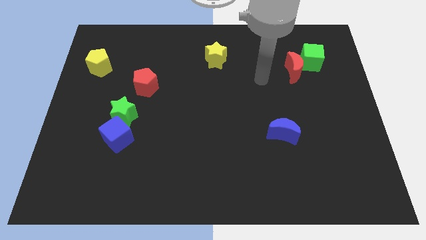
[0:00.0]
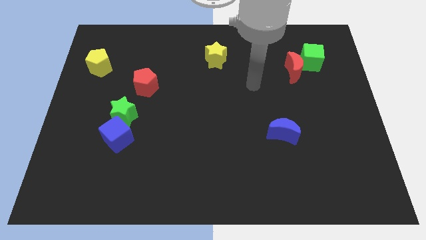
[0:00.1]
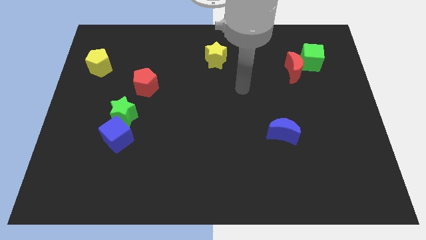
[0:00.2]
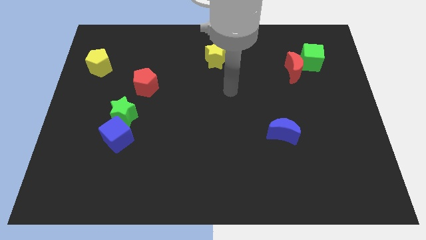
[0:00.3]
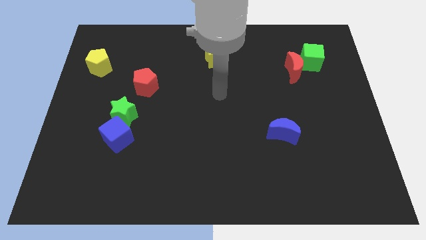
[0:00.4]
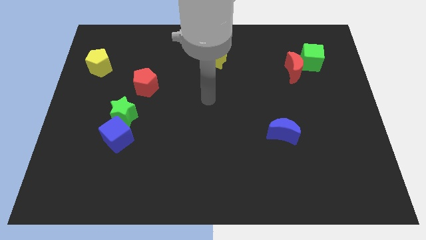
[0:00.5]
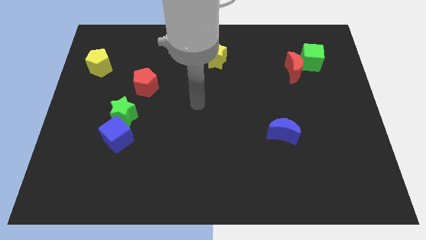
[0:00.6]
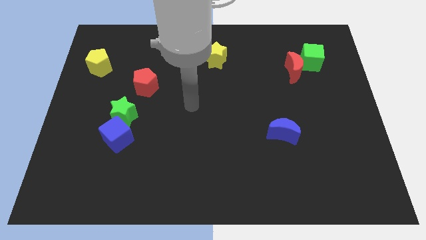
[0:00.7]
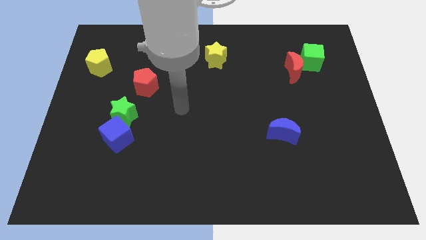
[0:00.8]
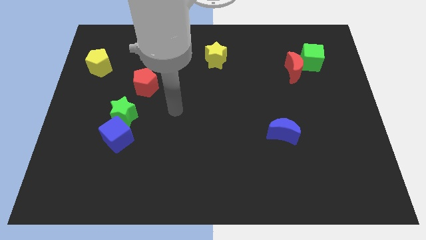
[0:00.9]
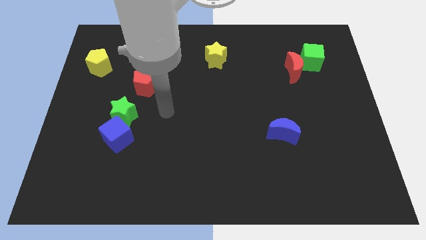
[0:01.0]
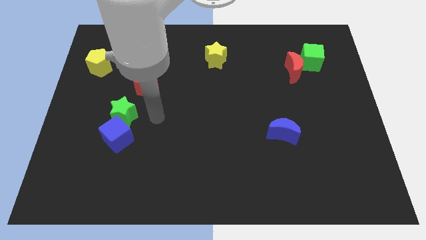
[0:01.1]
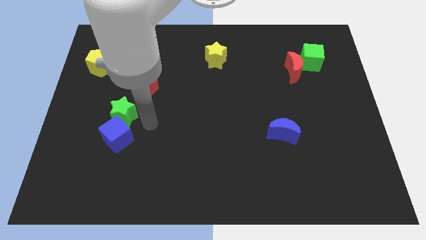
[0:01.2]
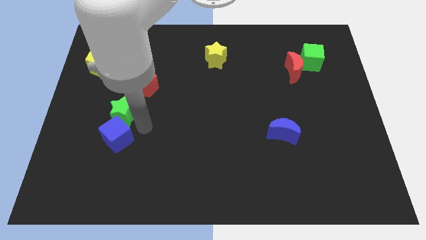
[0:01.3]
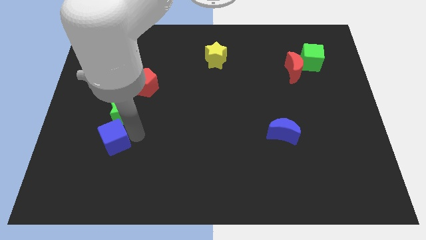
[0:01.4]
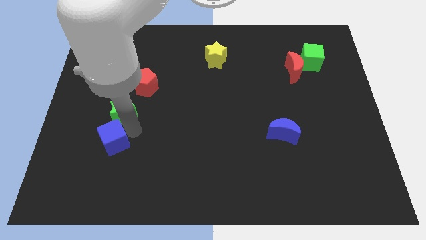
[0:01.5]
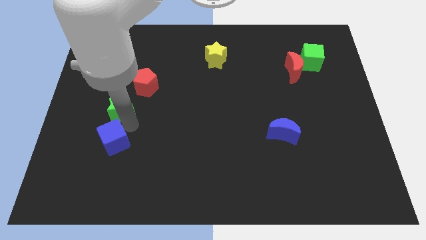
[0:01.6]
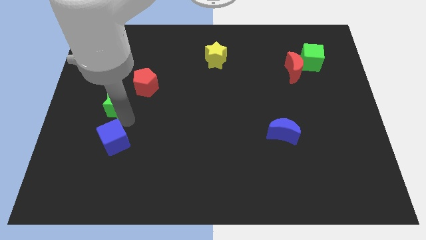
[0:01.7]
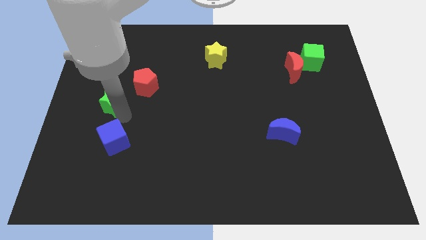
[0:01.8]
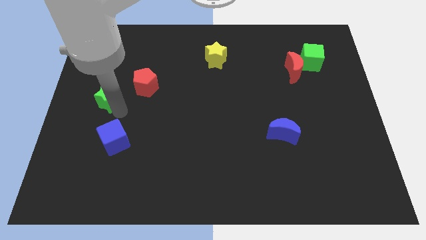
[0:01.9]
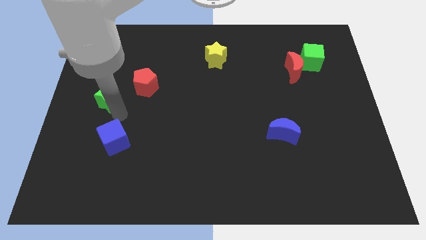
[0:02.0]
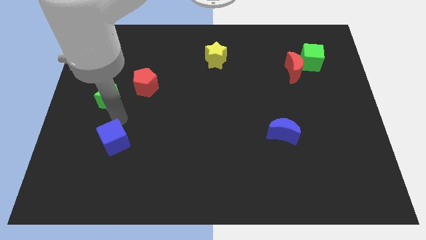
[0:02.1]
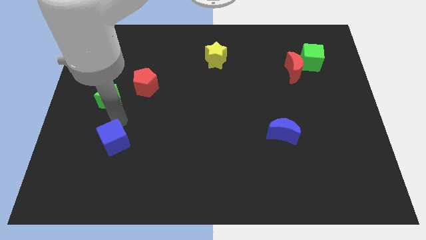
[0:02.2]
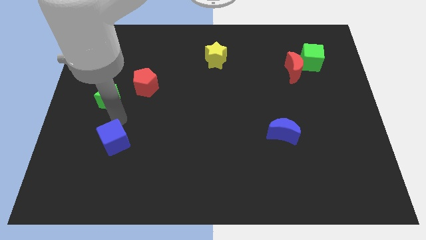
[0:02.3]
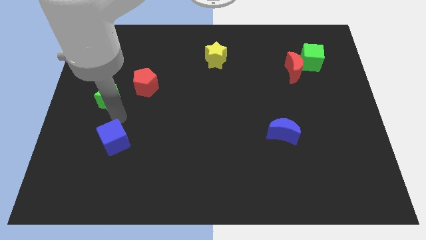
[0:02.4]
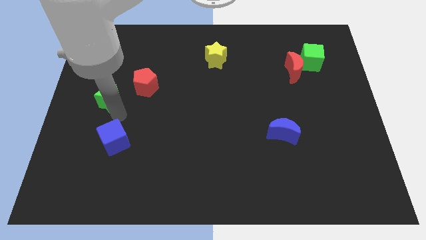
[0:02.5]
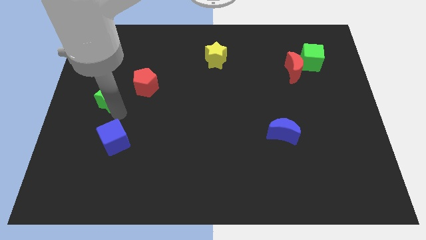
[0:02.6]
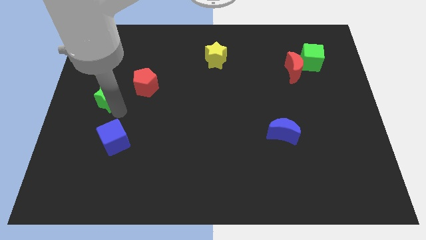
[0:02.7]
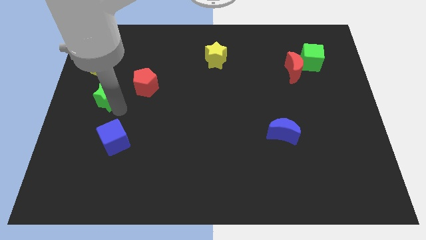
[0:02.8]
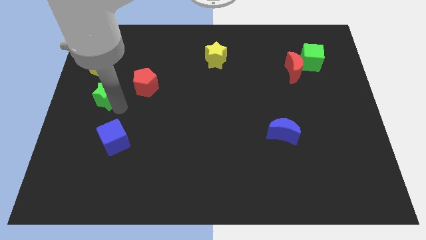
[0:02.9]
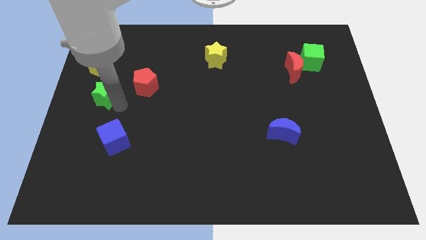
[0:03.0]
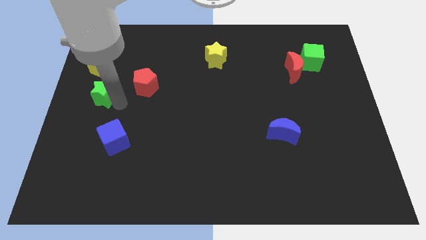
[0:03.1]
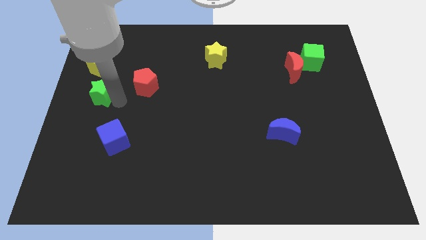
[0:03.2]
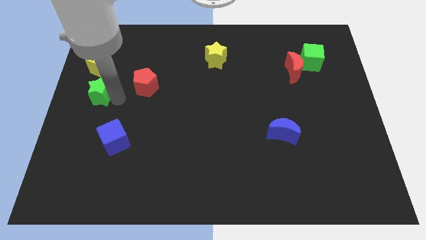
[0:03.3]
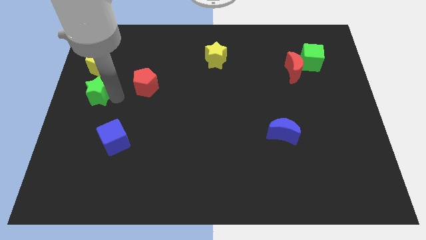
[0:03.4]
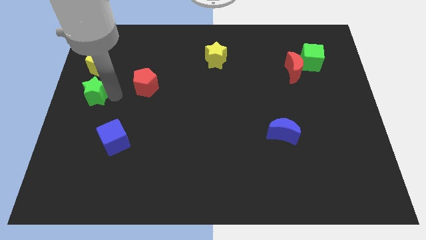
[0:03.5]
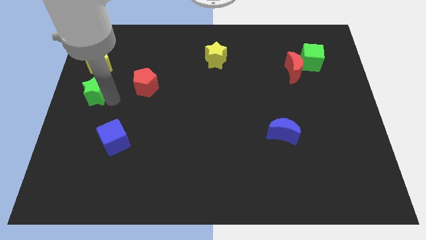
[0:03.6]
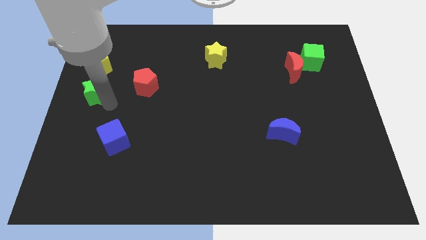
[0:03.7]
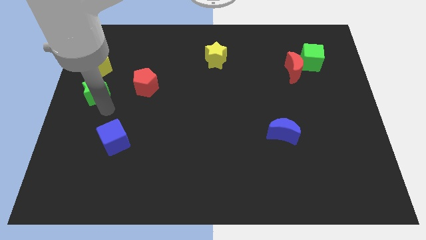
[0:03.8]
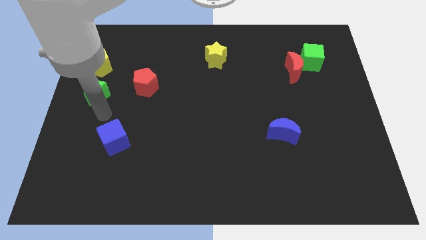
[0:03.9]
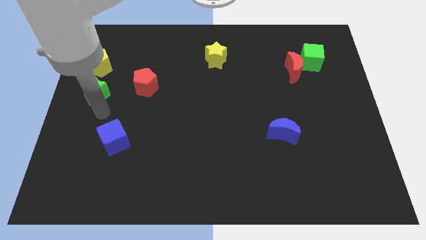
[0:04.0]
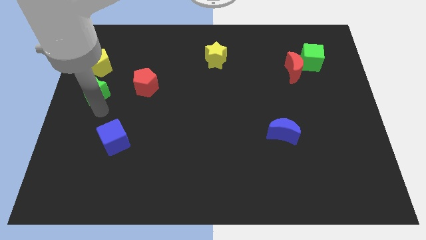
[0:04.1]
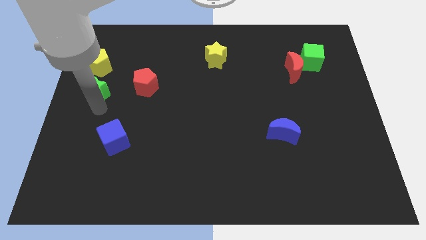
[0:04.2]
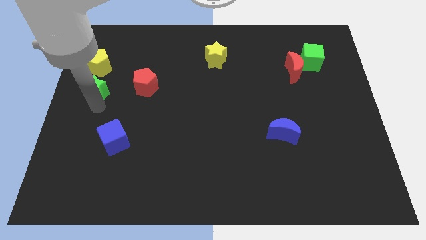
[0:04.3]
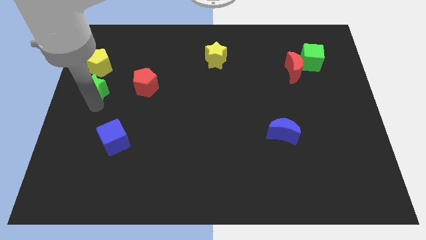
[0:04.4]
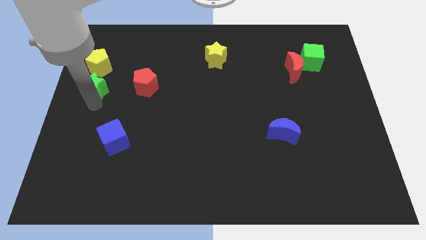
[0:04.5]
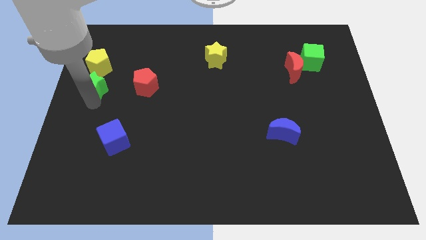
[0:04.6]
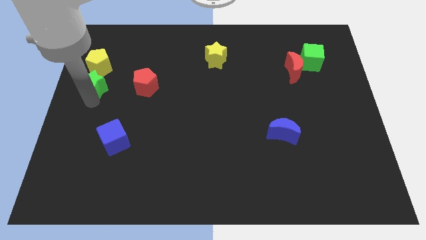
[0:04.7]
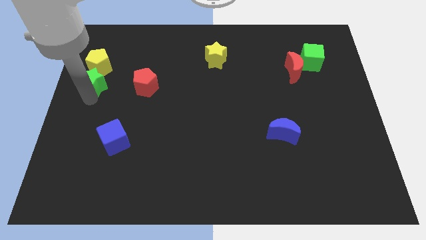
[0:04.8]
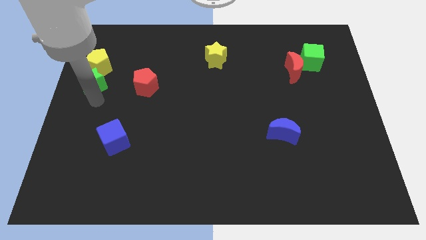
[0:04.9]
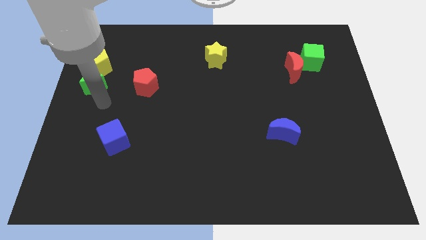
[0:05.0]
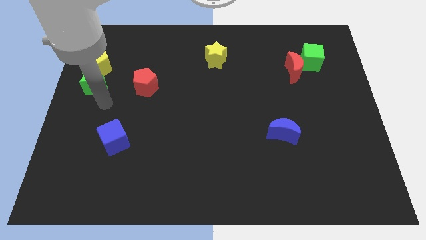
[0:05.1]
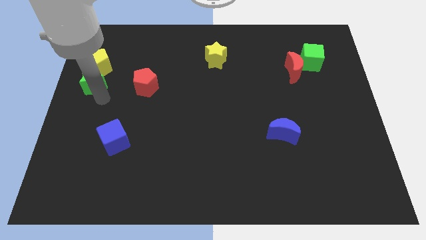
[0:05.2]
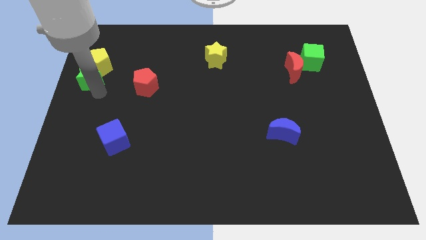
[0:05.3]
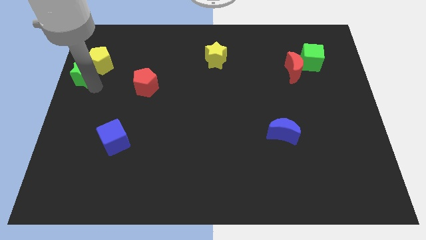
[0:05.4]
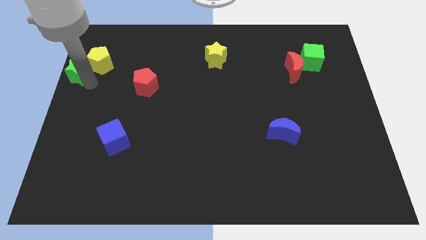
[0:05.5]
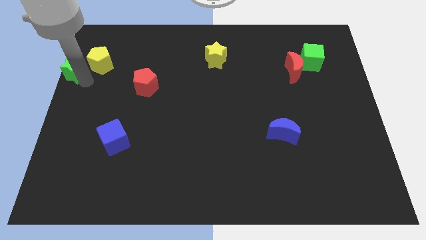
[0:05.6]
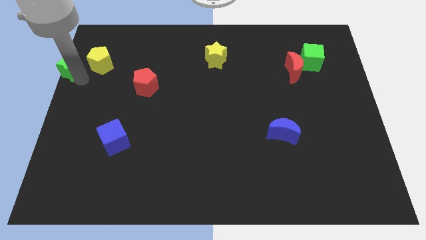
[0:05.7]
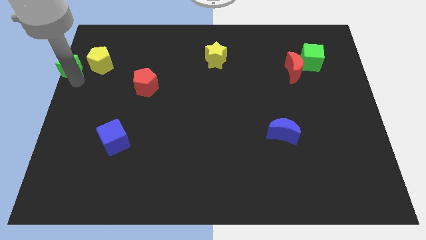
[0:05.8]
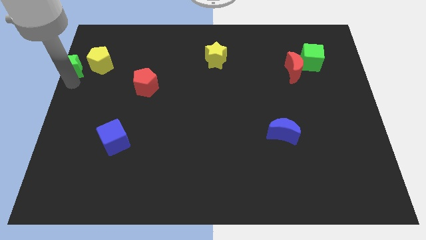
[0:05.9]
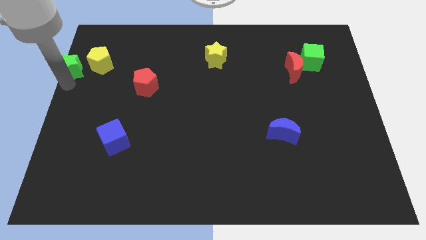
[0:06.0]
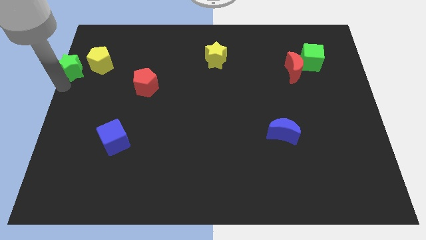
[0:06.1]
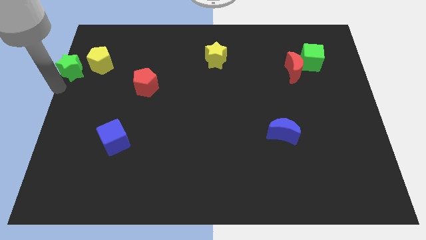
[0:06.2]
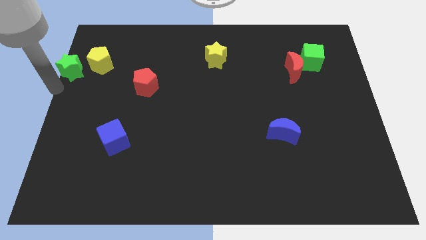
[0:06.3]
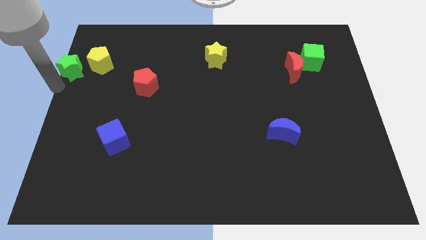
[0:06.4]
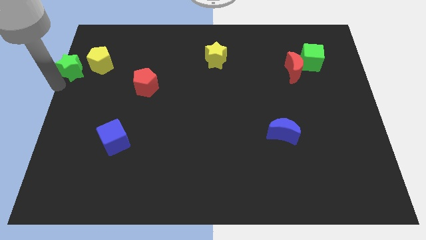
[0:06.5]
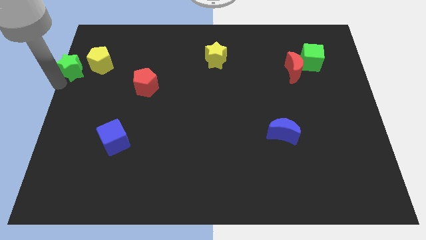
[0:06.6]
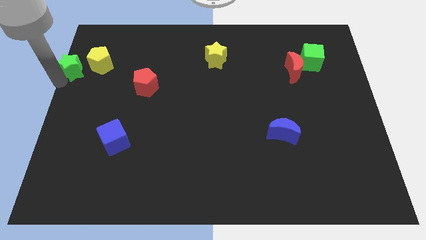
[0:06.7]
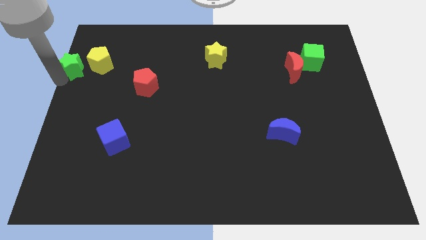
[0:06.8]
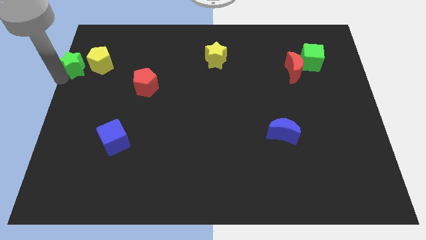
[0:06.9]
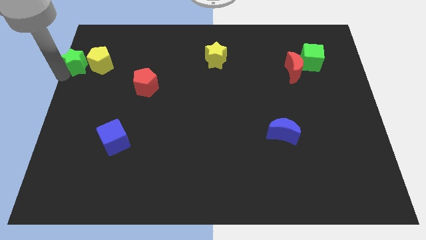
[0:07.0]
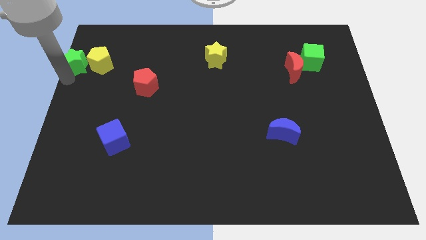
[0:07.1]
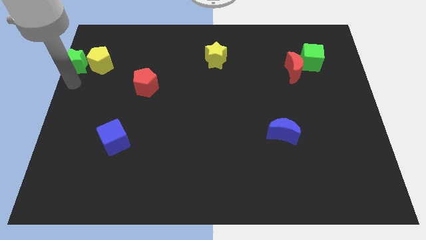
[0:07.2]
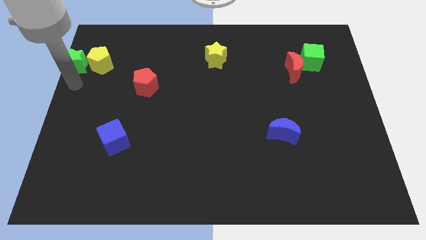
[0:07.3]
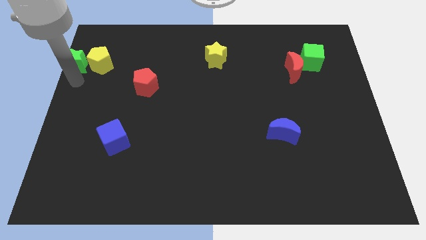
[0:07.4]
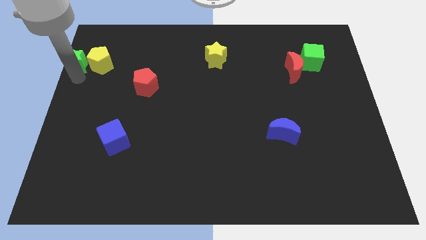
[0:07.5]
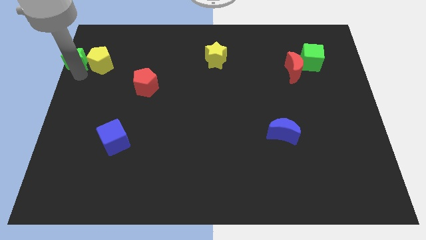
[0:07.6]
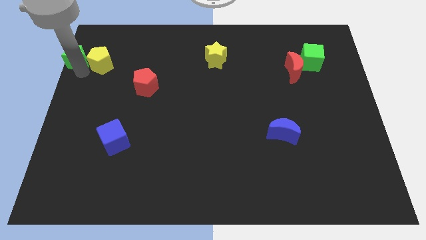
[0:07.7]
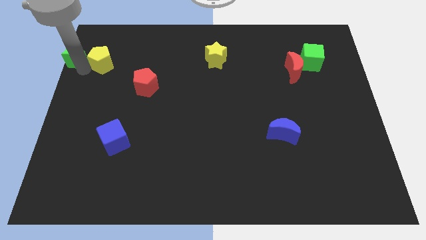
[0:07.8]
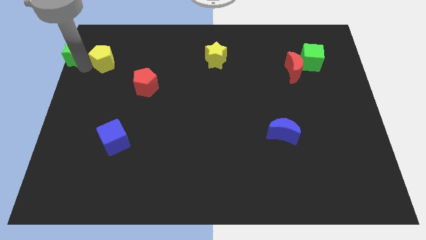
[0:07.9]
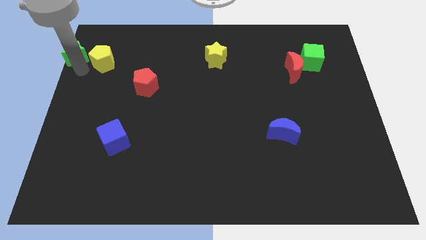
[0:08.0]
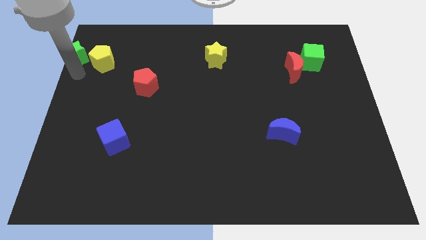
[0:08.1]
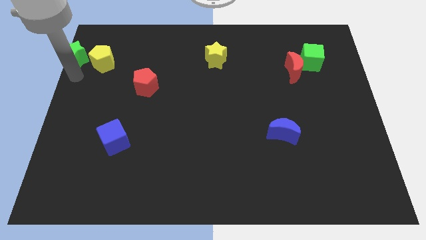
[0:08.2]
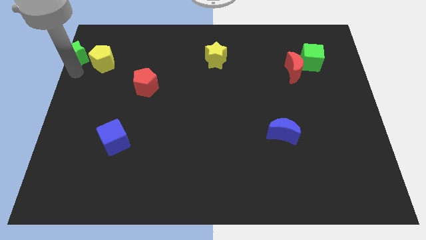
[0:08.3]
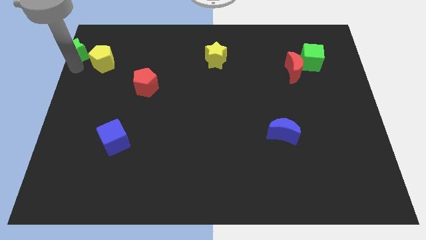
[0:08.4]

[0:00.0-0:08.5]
move the green star to the top left corner
